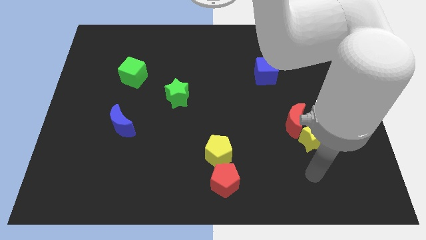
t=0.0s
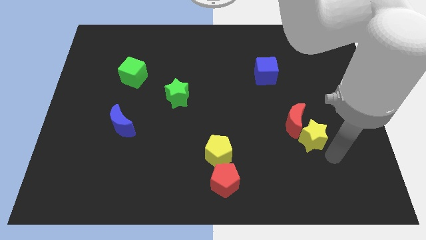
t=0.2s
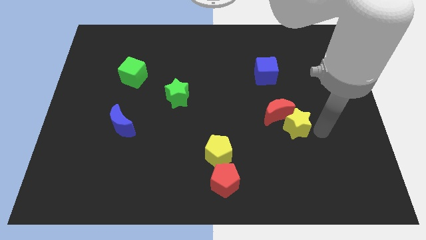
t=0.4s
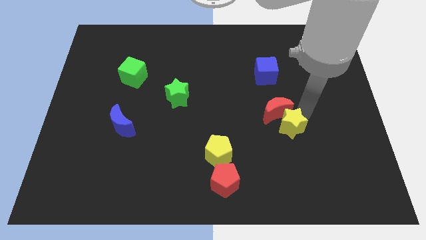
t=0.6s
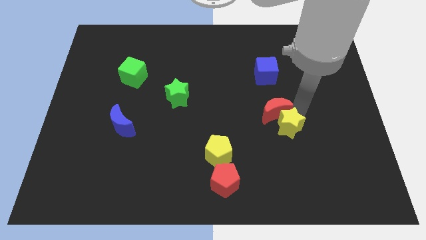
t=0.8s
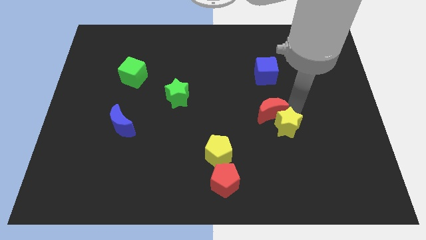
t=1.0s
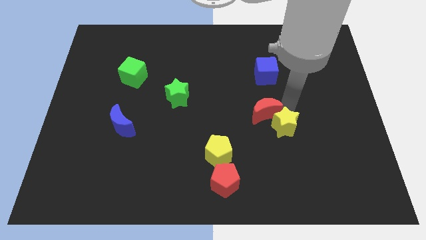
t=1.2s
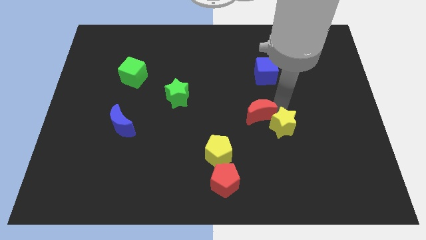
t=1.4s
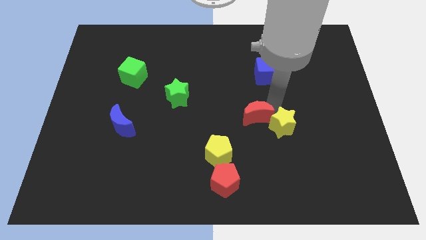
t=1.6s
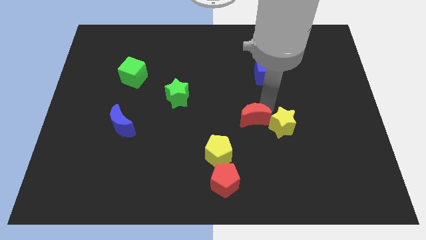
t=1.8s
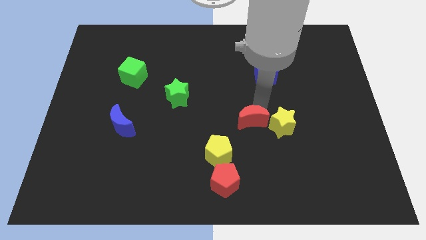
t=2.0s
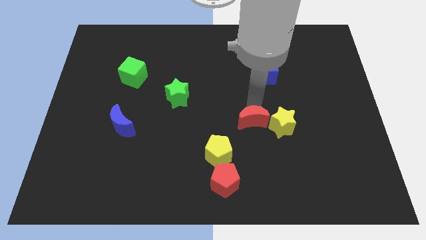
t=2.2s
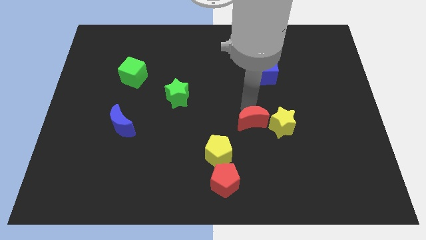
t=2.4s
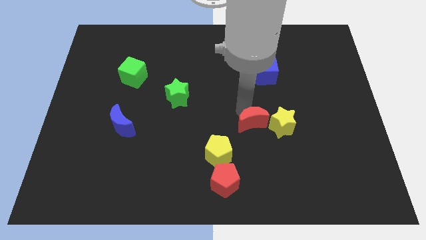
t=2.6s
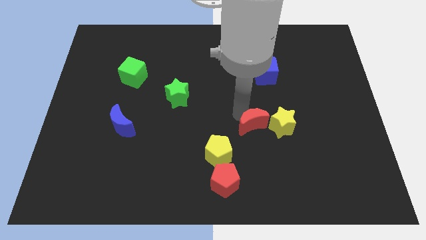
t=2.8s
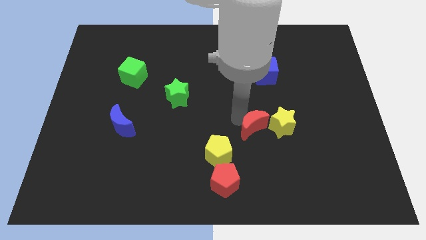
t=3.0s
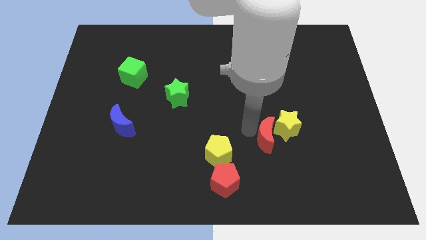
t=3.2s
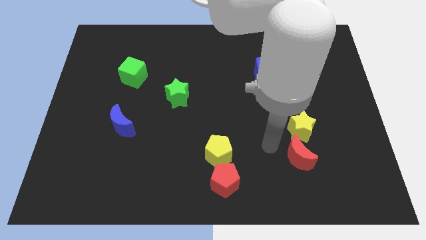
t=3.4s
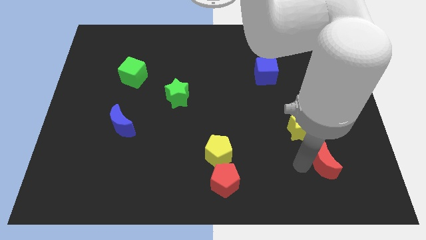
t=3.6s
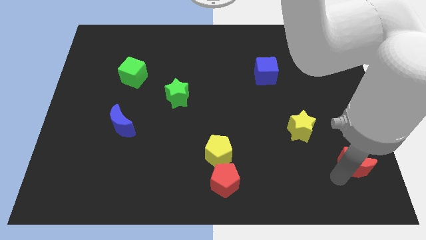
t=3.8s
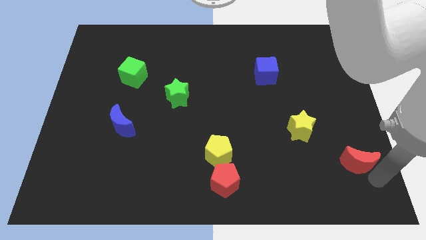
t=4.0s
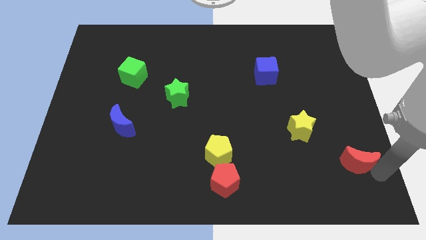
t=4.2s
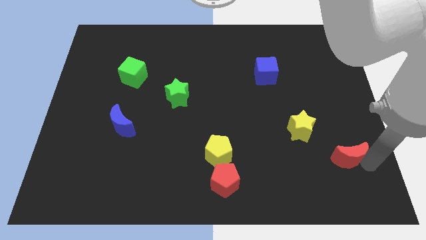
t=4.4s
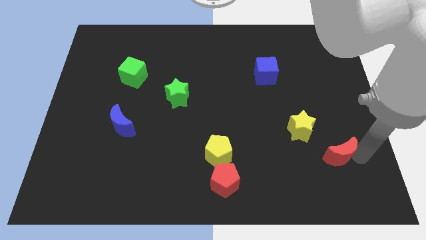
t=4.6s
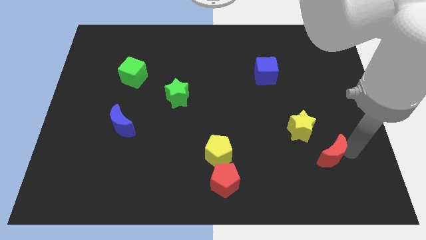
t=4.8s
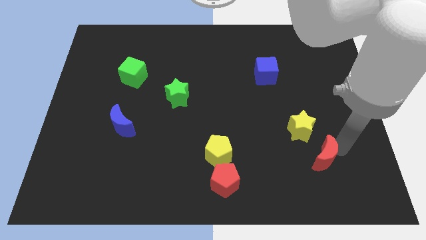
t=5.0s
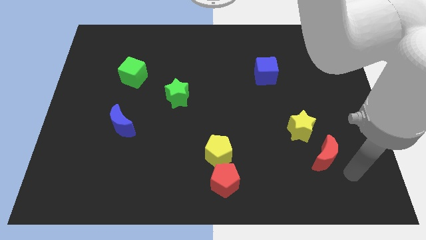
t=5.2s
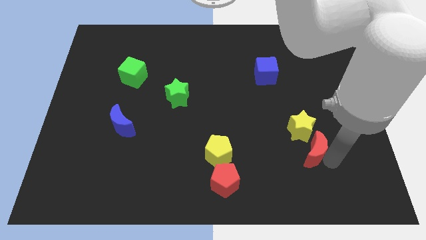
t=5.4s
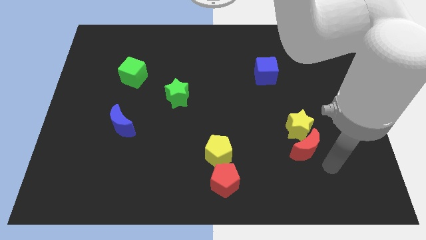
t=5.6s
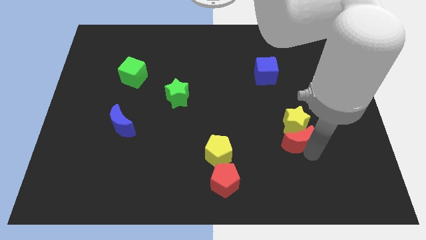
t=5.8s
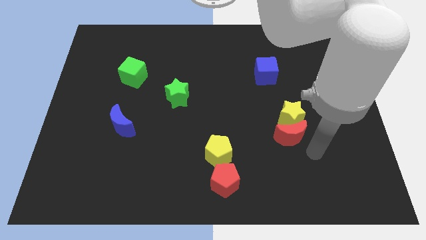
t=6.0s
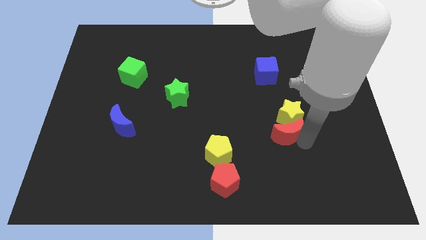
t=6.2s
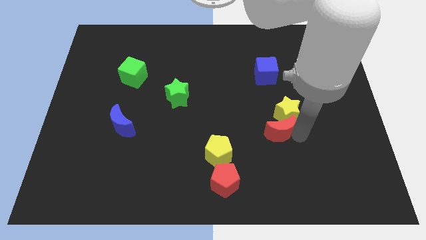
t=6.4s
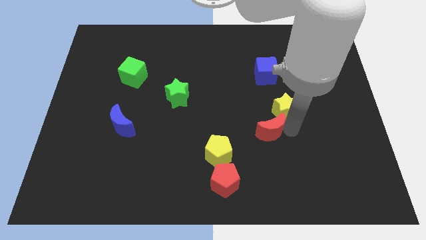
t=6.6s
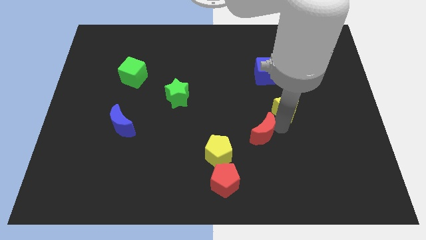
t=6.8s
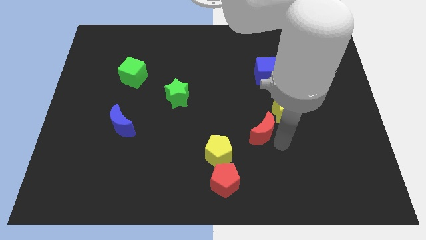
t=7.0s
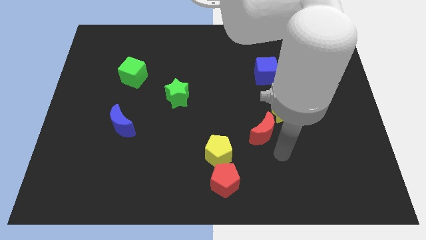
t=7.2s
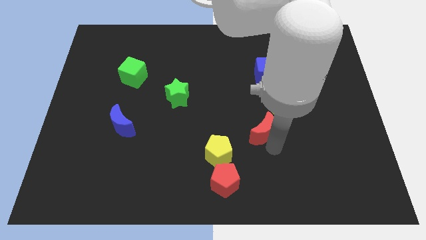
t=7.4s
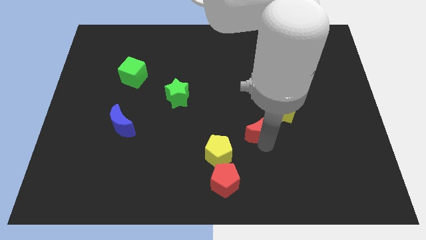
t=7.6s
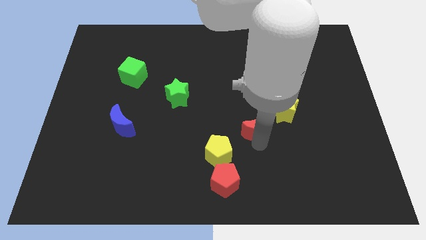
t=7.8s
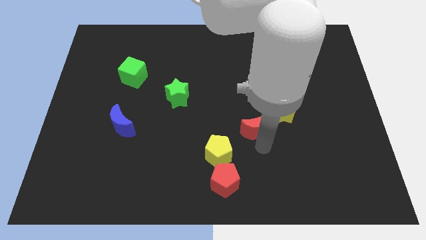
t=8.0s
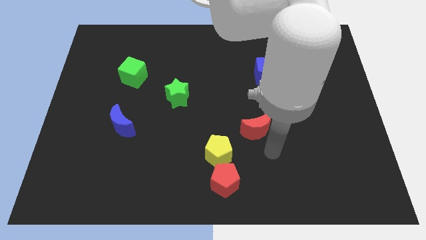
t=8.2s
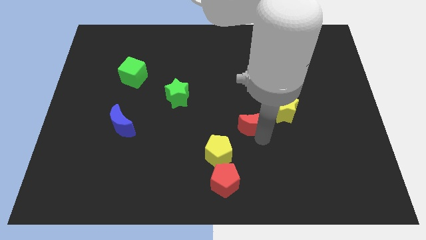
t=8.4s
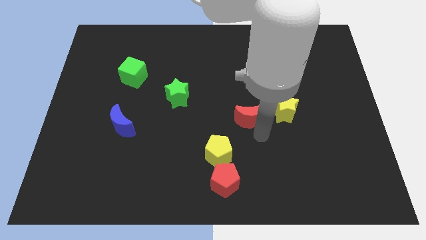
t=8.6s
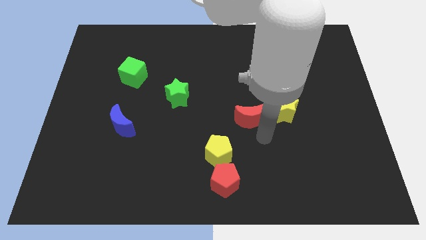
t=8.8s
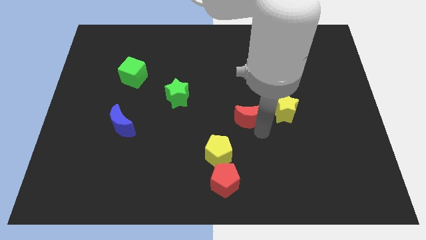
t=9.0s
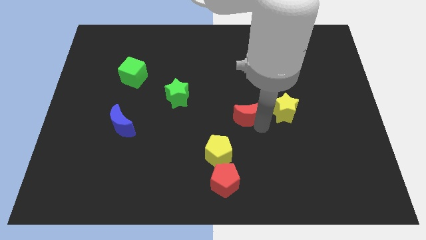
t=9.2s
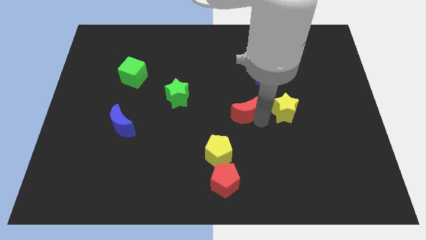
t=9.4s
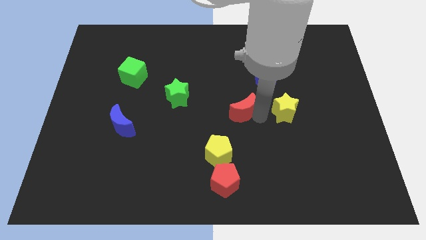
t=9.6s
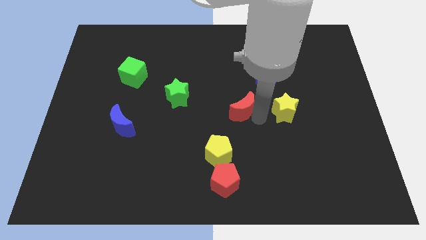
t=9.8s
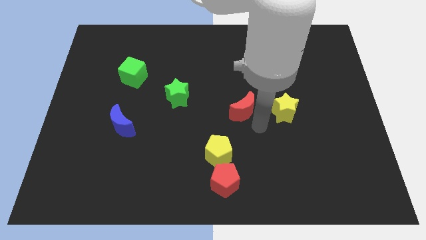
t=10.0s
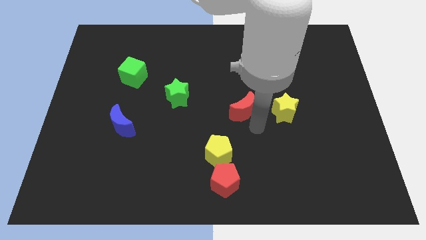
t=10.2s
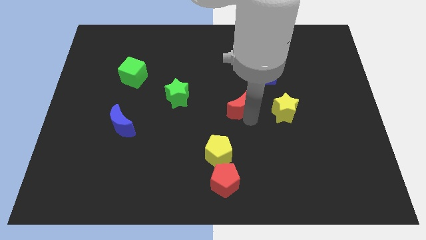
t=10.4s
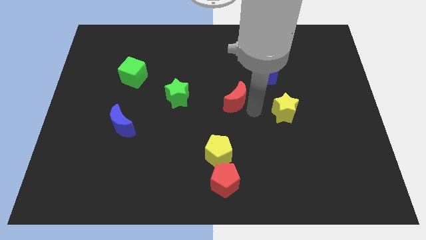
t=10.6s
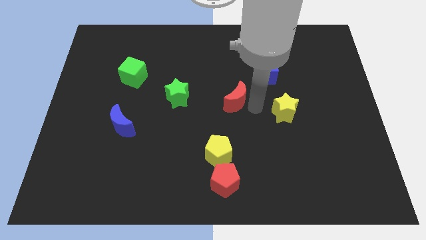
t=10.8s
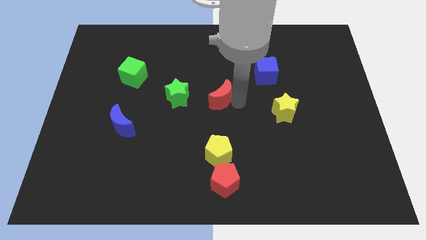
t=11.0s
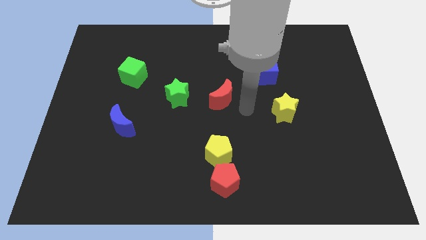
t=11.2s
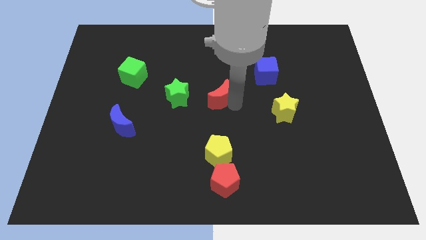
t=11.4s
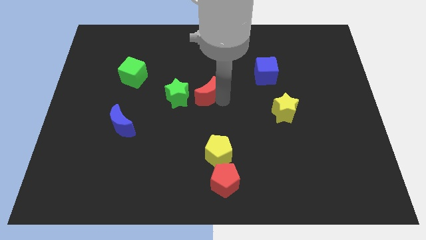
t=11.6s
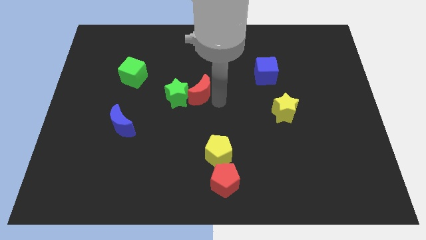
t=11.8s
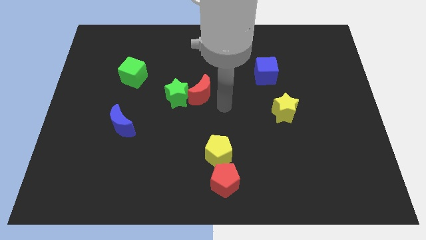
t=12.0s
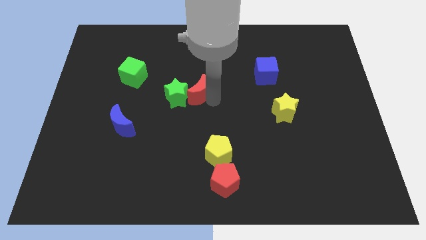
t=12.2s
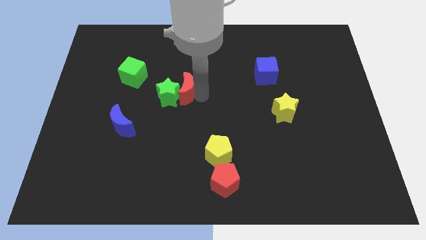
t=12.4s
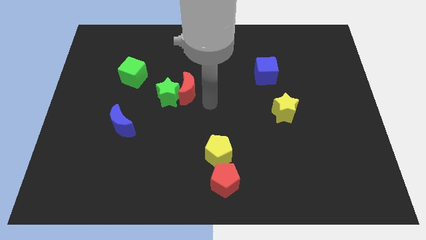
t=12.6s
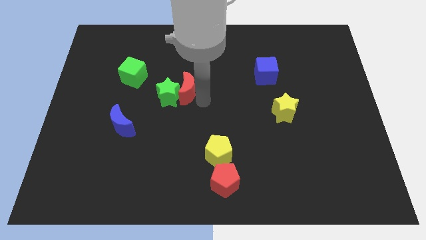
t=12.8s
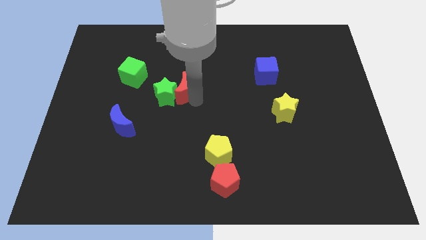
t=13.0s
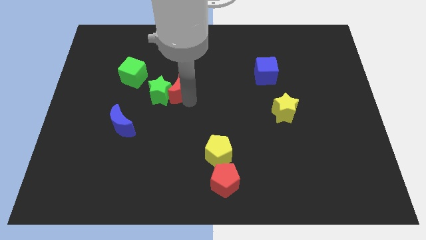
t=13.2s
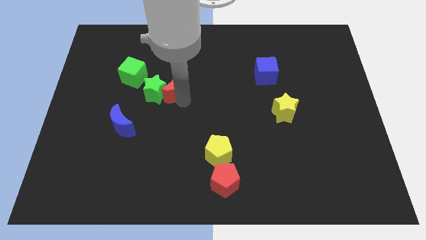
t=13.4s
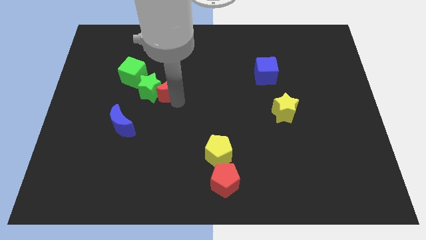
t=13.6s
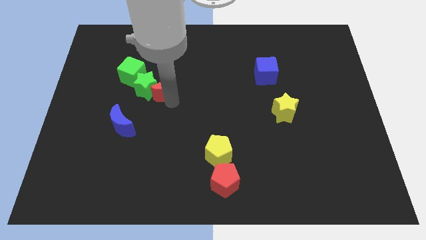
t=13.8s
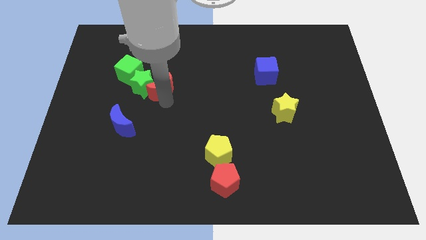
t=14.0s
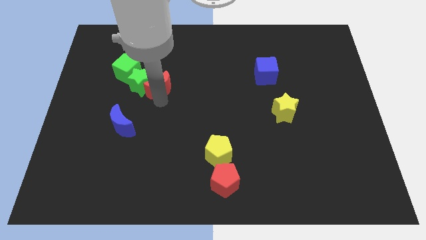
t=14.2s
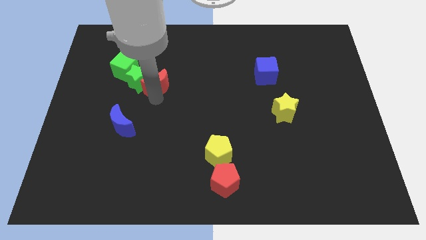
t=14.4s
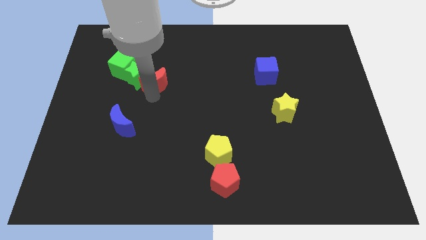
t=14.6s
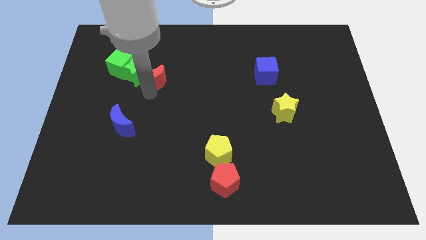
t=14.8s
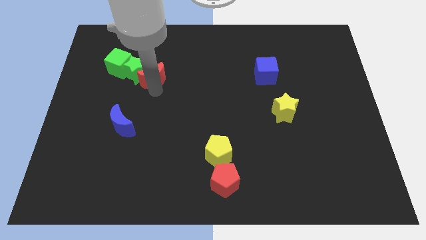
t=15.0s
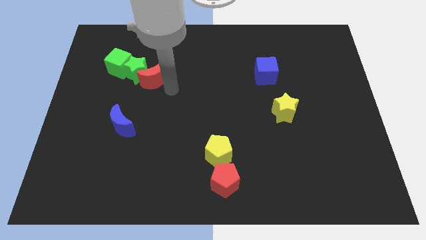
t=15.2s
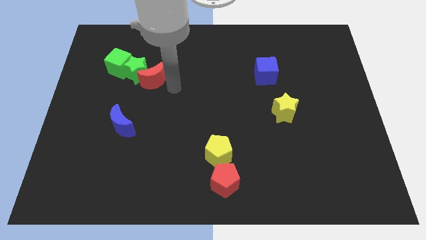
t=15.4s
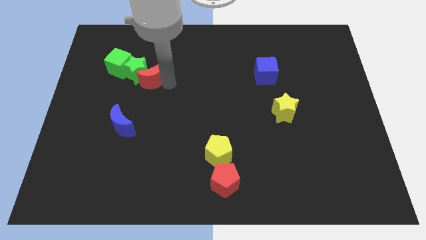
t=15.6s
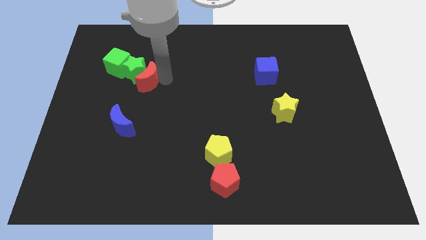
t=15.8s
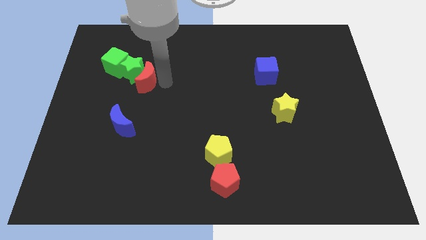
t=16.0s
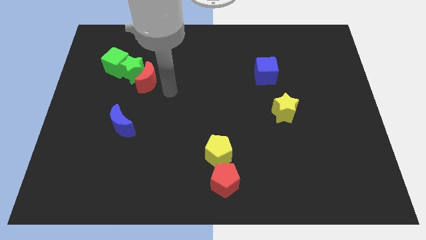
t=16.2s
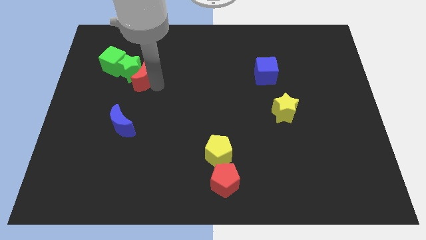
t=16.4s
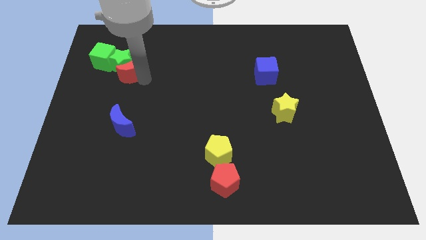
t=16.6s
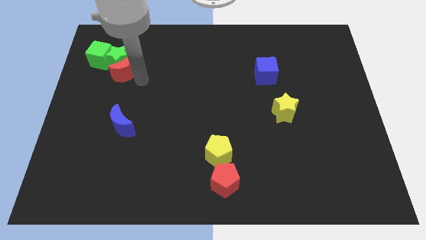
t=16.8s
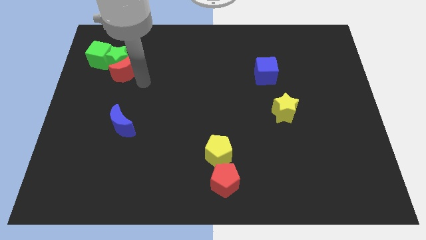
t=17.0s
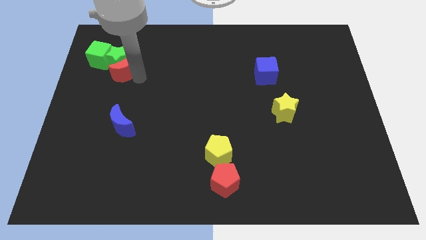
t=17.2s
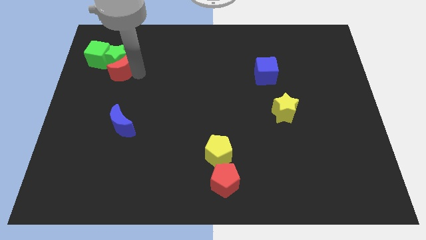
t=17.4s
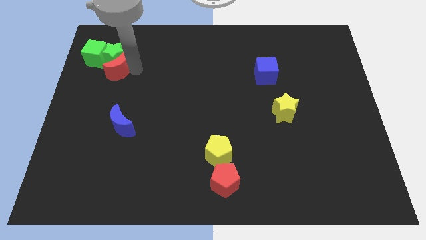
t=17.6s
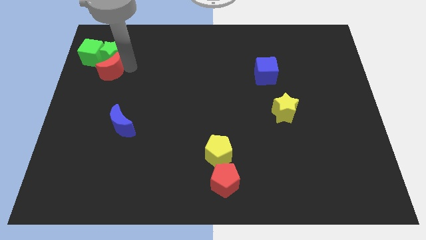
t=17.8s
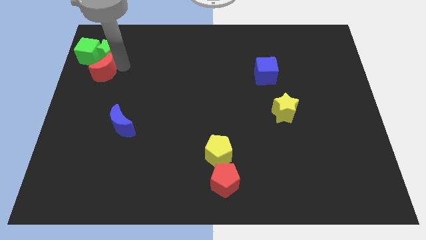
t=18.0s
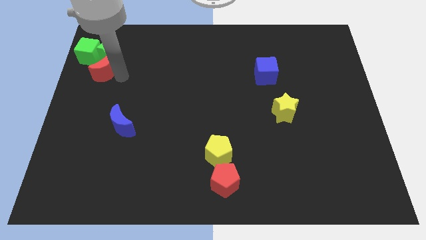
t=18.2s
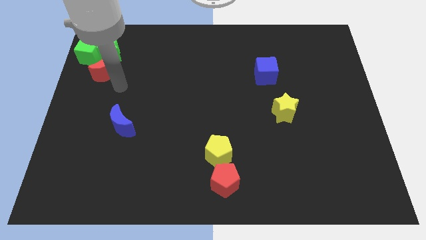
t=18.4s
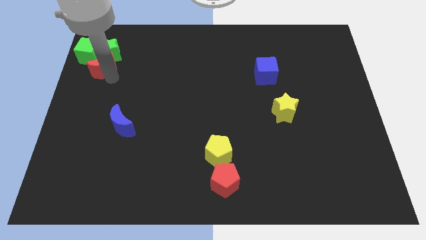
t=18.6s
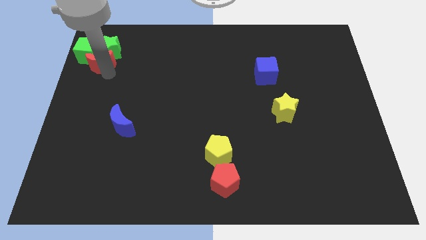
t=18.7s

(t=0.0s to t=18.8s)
push the red moon next to the green cube
